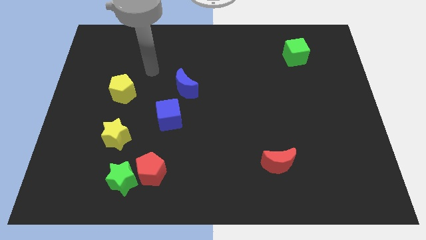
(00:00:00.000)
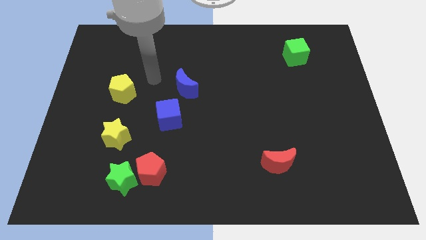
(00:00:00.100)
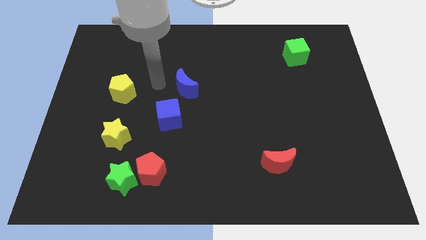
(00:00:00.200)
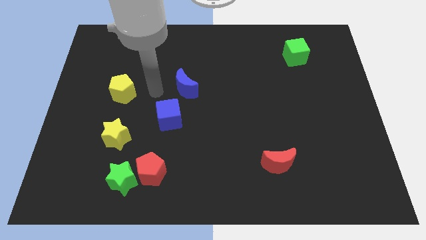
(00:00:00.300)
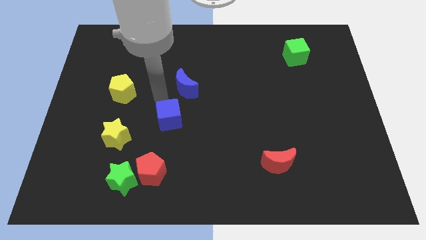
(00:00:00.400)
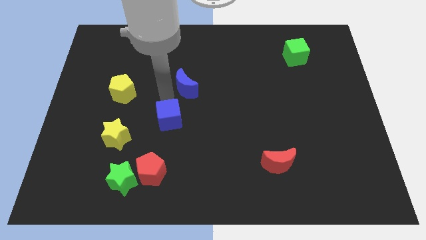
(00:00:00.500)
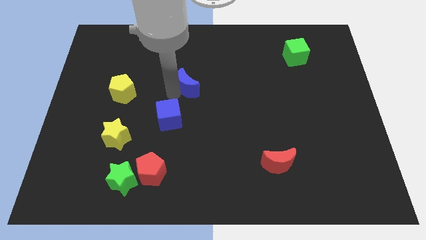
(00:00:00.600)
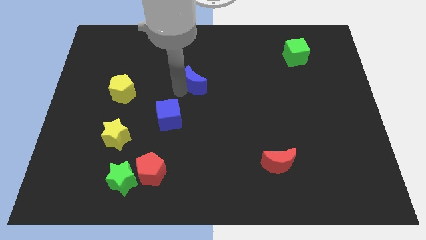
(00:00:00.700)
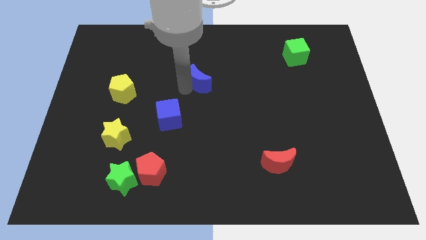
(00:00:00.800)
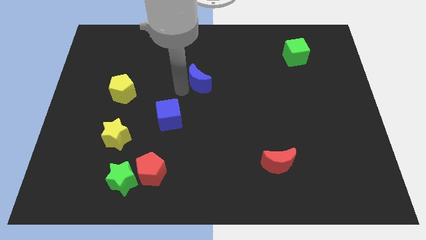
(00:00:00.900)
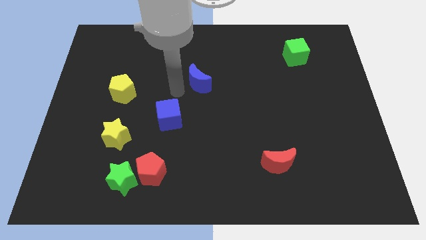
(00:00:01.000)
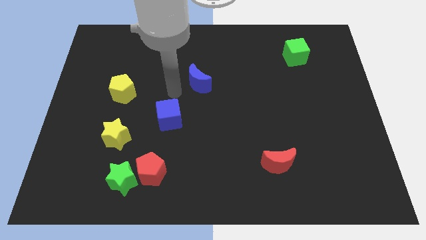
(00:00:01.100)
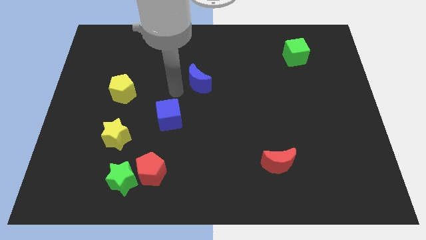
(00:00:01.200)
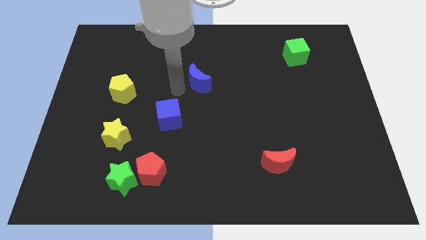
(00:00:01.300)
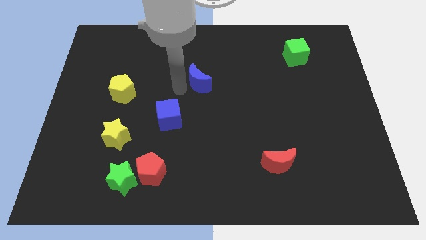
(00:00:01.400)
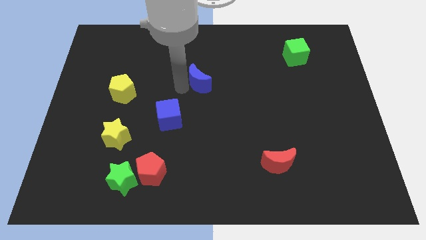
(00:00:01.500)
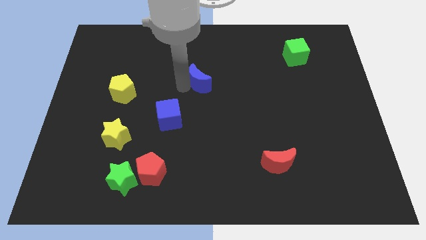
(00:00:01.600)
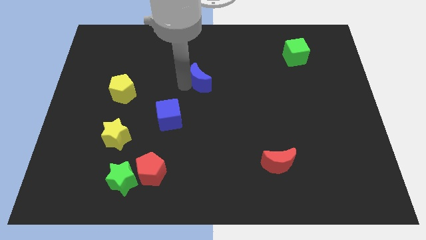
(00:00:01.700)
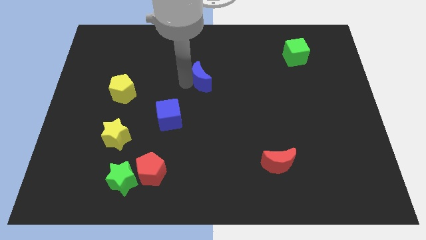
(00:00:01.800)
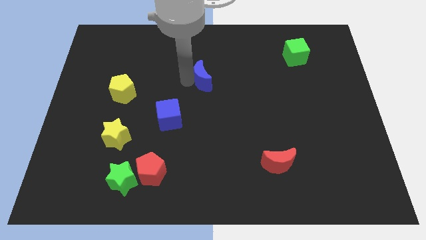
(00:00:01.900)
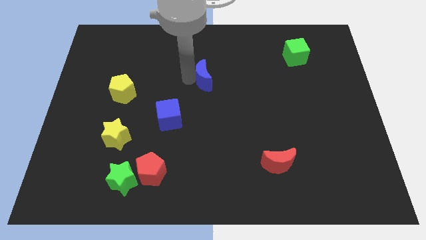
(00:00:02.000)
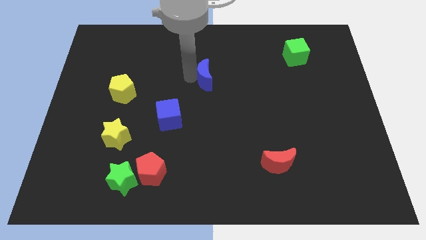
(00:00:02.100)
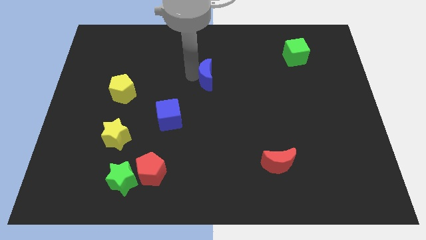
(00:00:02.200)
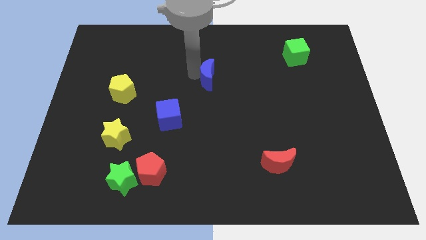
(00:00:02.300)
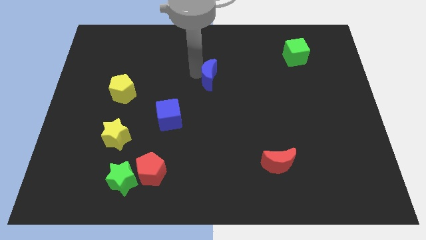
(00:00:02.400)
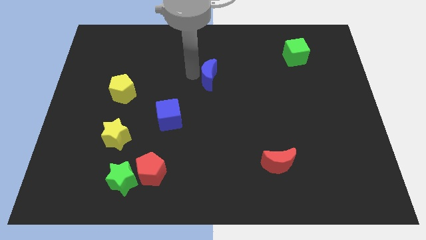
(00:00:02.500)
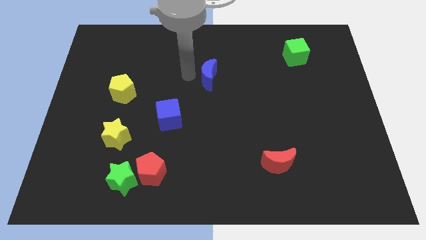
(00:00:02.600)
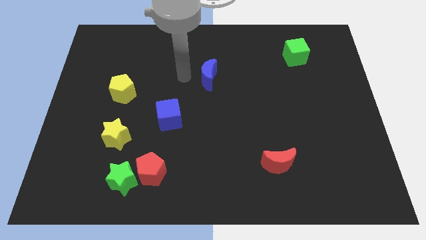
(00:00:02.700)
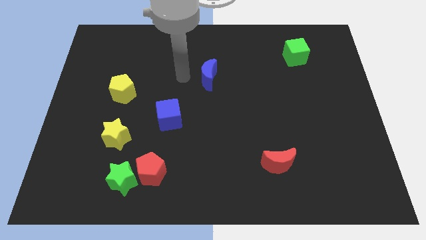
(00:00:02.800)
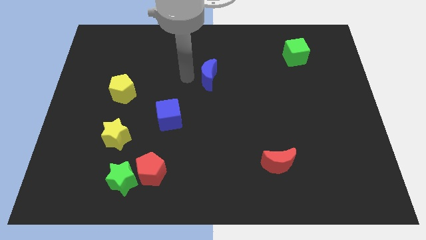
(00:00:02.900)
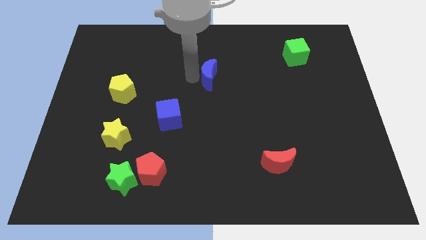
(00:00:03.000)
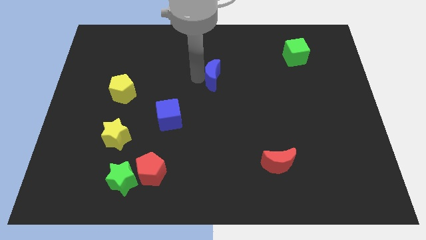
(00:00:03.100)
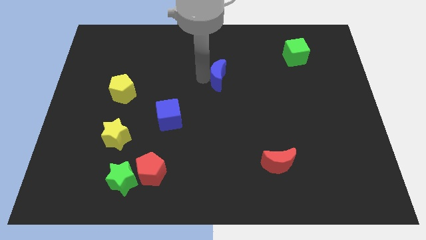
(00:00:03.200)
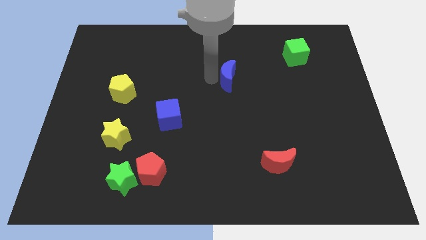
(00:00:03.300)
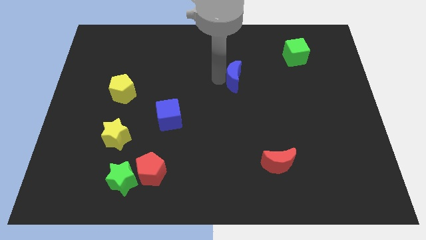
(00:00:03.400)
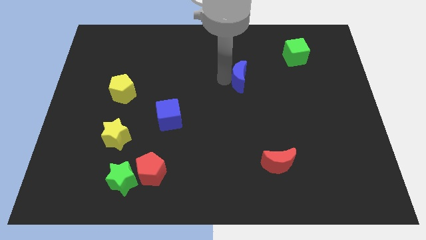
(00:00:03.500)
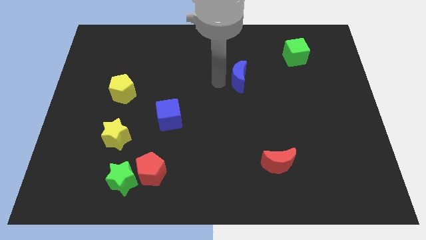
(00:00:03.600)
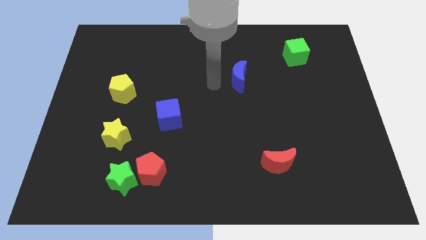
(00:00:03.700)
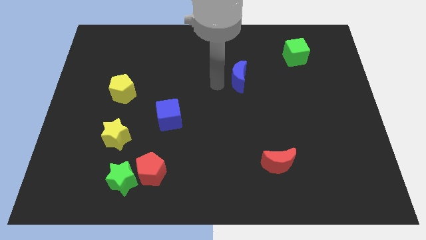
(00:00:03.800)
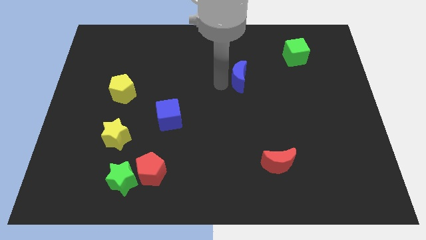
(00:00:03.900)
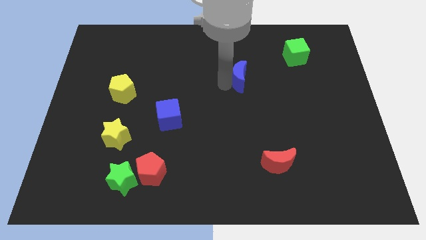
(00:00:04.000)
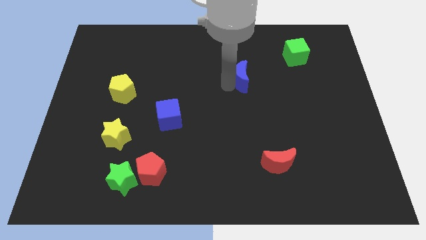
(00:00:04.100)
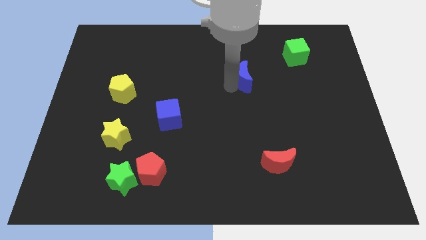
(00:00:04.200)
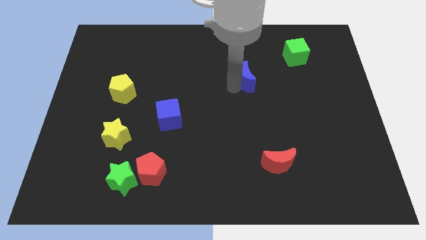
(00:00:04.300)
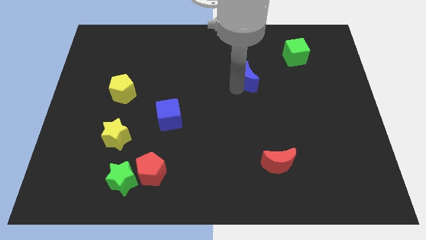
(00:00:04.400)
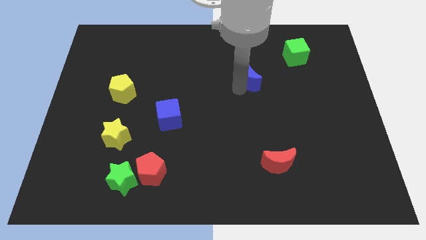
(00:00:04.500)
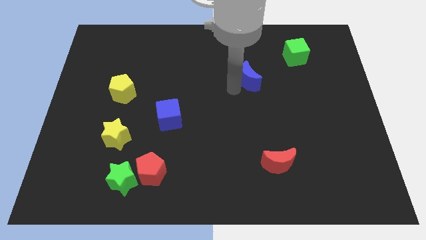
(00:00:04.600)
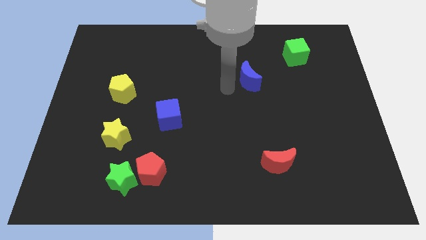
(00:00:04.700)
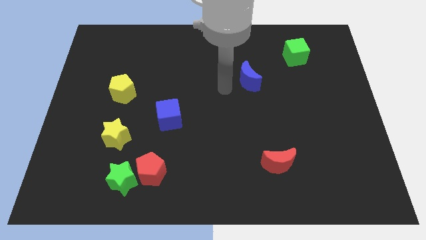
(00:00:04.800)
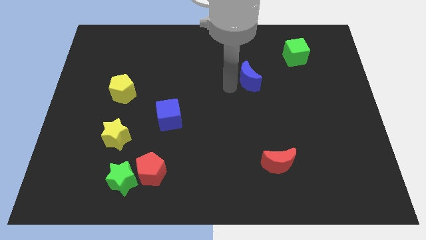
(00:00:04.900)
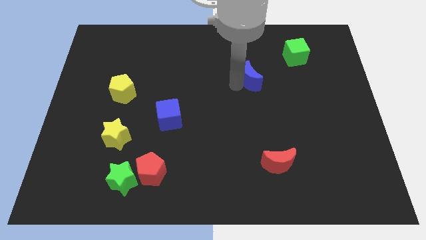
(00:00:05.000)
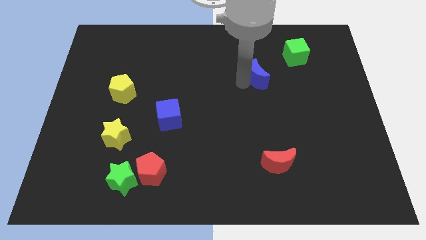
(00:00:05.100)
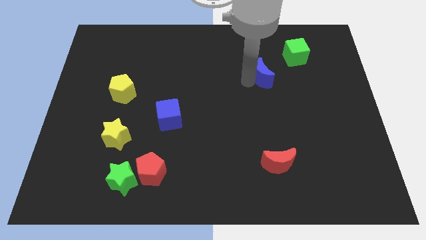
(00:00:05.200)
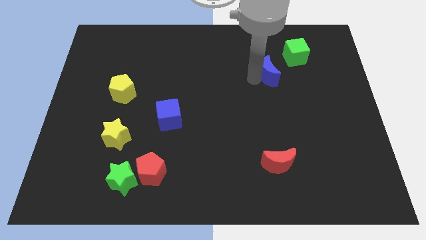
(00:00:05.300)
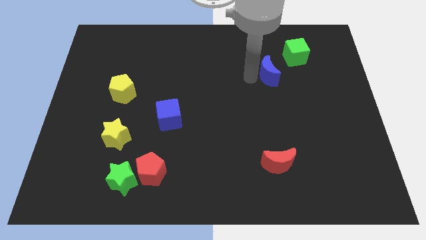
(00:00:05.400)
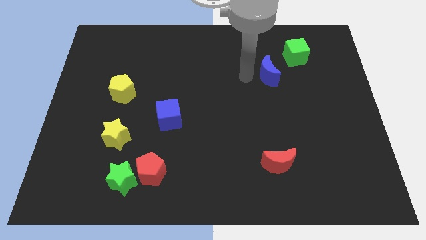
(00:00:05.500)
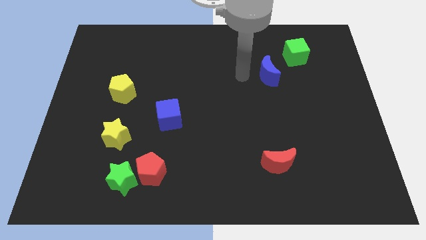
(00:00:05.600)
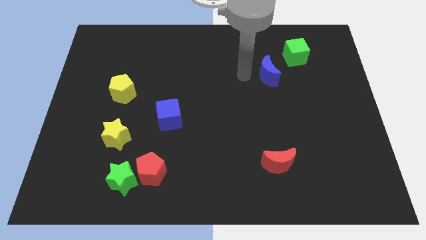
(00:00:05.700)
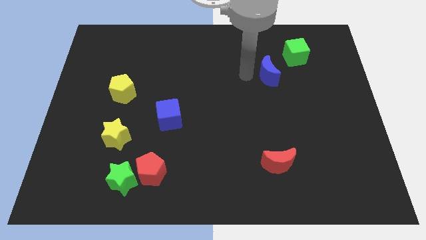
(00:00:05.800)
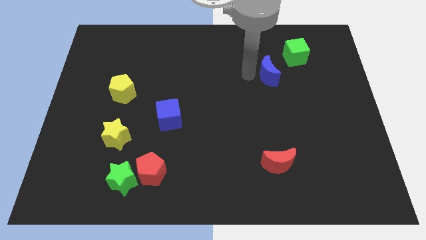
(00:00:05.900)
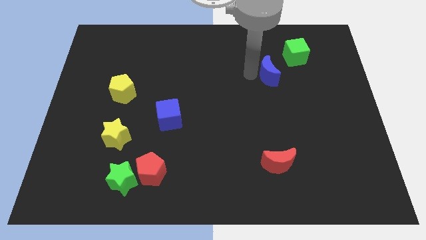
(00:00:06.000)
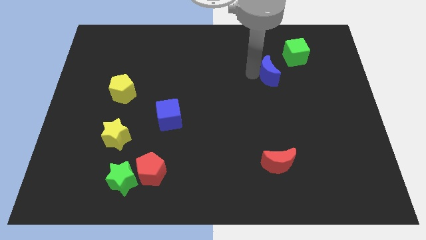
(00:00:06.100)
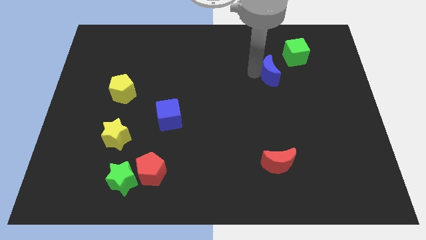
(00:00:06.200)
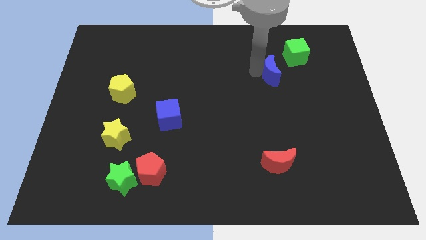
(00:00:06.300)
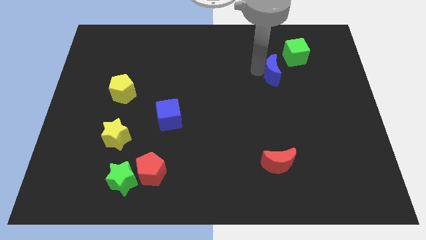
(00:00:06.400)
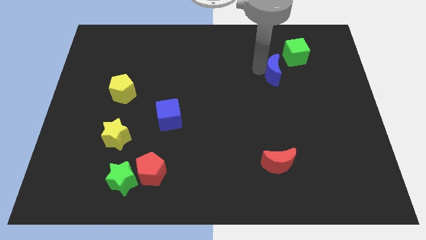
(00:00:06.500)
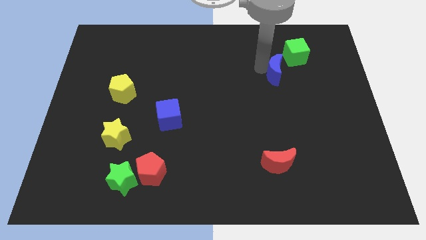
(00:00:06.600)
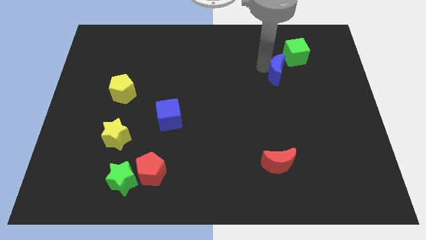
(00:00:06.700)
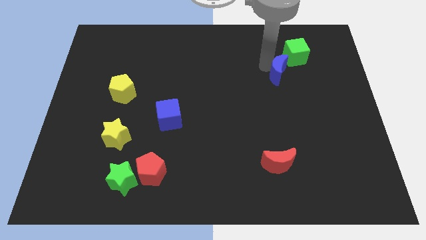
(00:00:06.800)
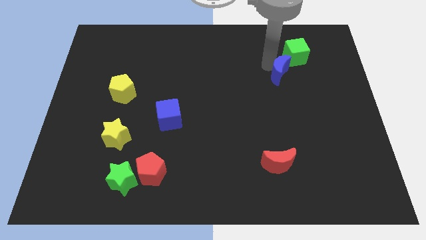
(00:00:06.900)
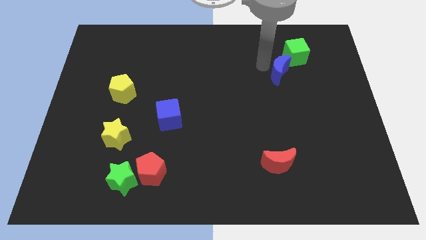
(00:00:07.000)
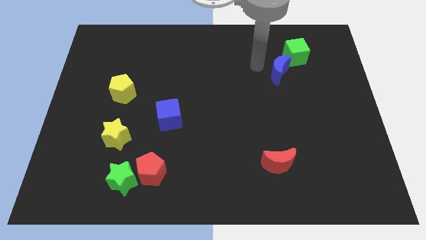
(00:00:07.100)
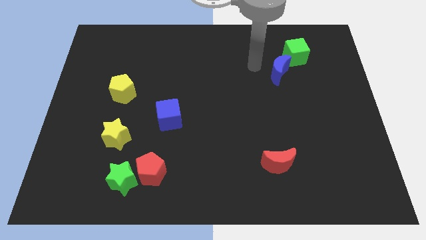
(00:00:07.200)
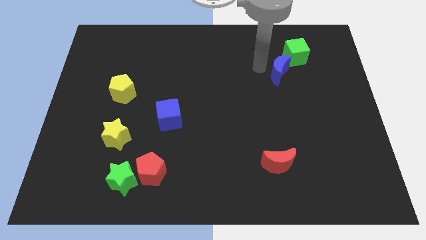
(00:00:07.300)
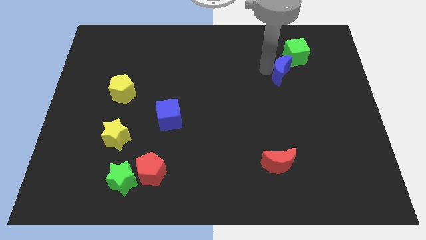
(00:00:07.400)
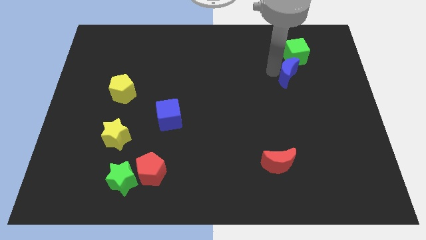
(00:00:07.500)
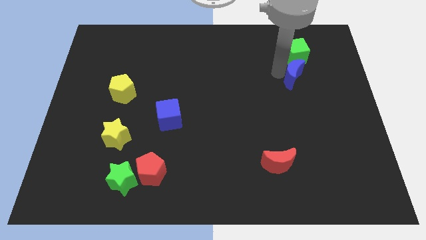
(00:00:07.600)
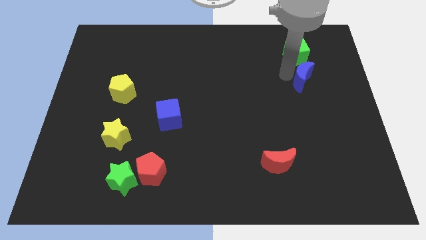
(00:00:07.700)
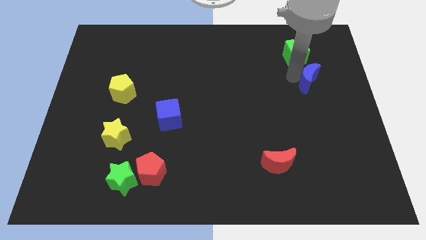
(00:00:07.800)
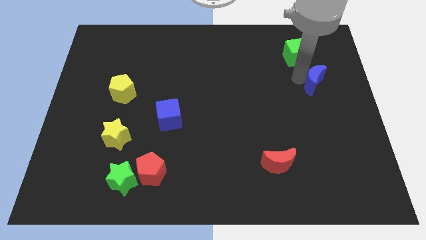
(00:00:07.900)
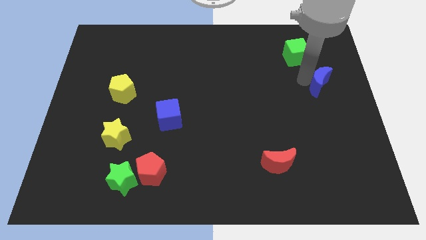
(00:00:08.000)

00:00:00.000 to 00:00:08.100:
slide the blue moon to the right side
